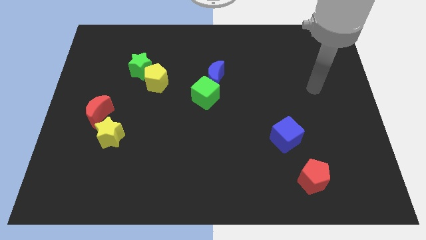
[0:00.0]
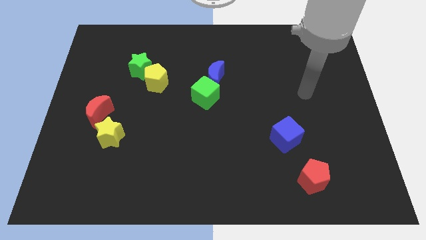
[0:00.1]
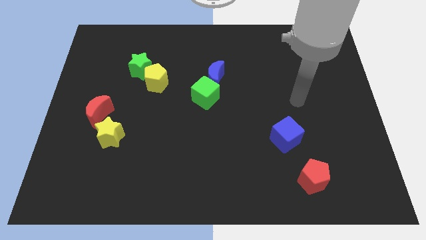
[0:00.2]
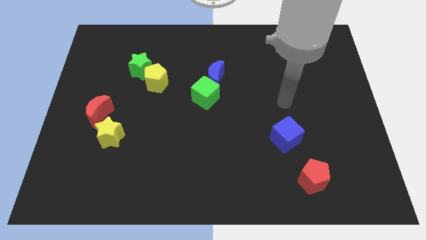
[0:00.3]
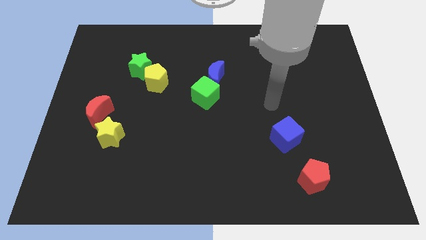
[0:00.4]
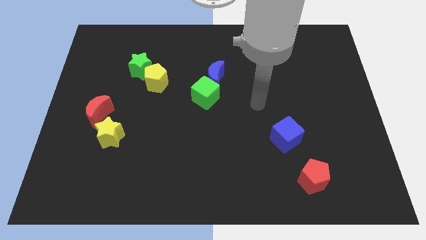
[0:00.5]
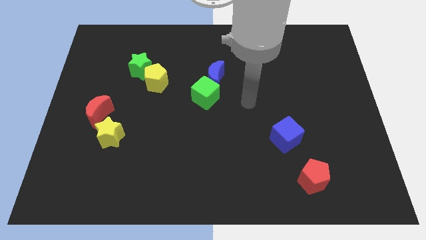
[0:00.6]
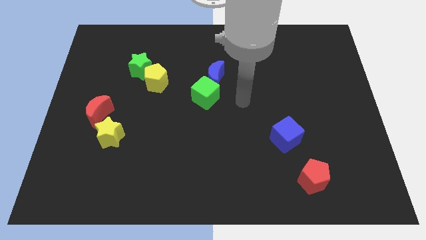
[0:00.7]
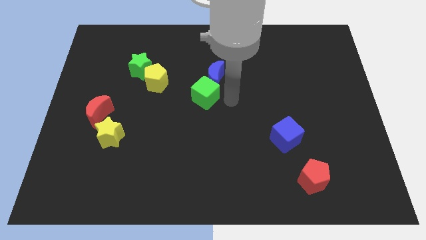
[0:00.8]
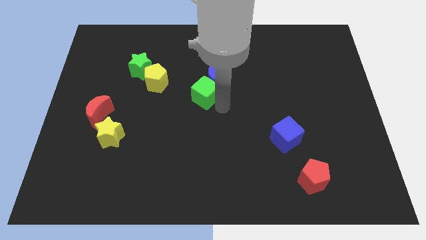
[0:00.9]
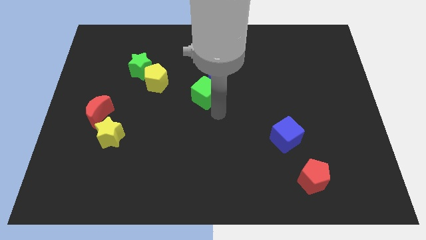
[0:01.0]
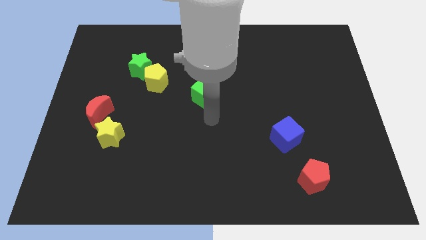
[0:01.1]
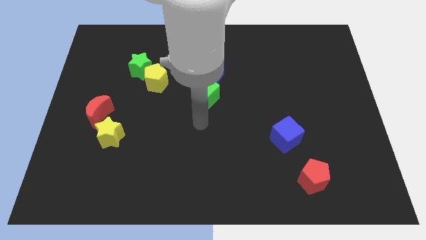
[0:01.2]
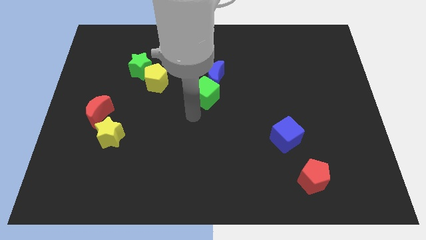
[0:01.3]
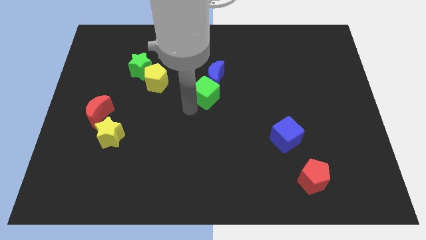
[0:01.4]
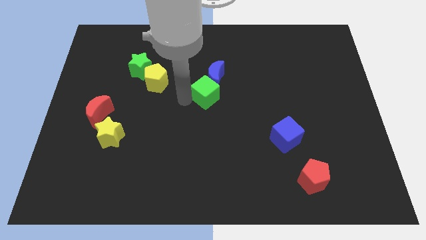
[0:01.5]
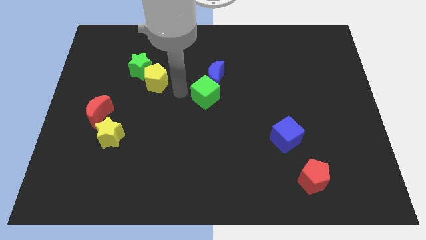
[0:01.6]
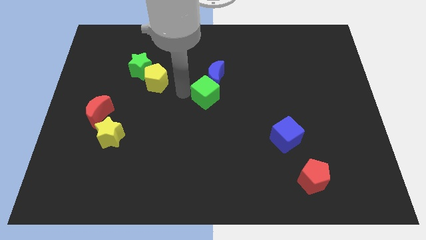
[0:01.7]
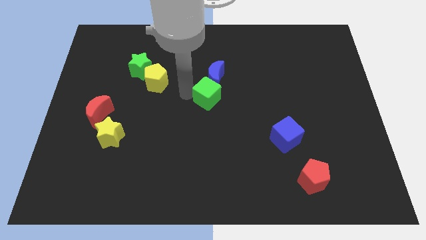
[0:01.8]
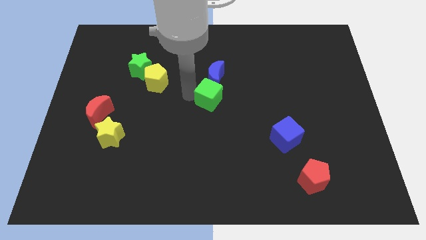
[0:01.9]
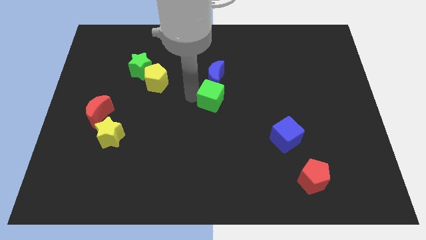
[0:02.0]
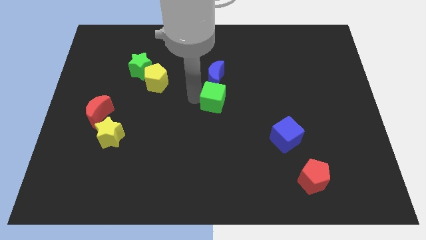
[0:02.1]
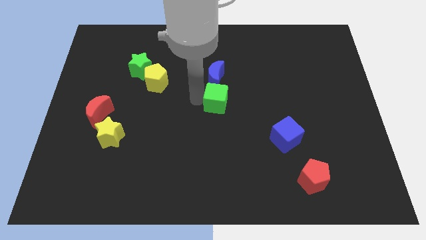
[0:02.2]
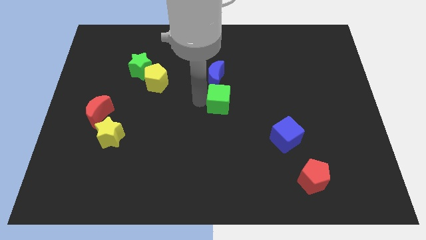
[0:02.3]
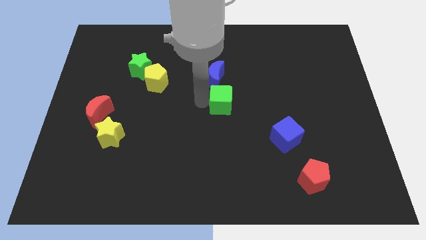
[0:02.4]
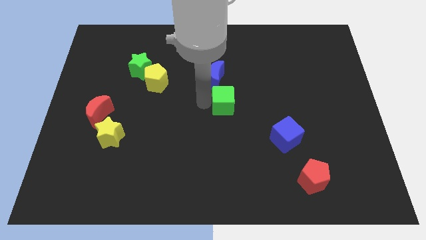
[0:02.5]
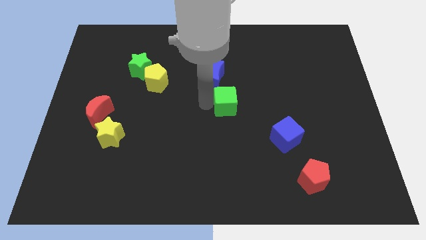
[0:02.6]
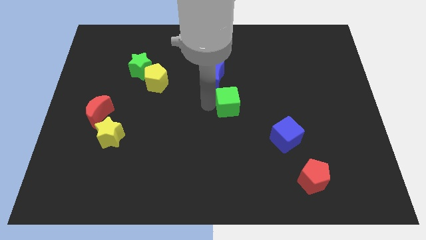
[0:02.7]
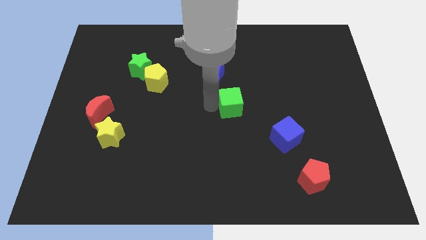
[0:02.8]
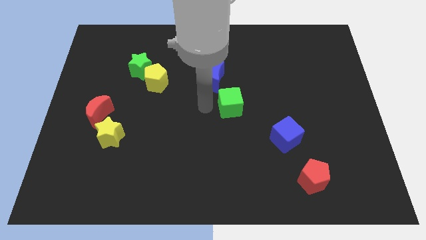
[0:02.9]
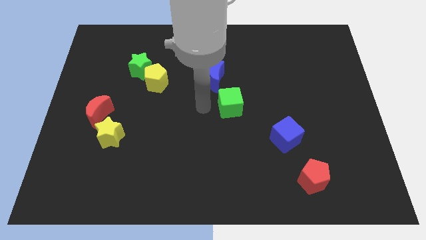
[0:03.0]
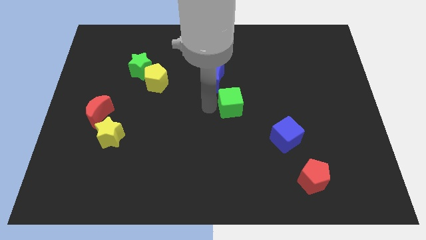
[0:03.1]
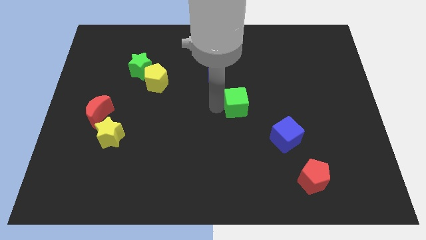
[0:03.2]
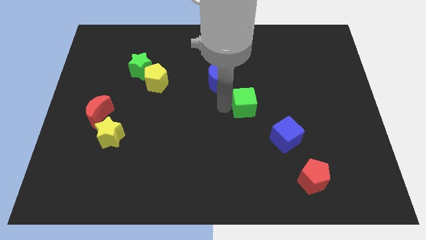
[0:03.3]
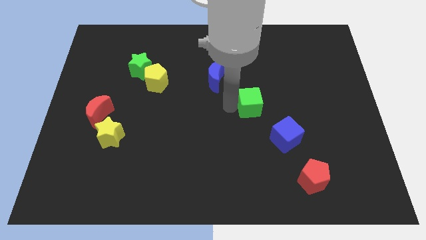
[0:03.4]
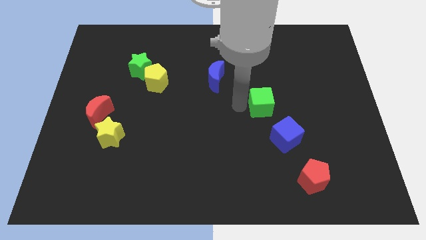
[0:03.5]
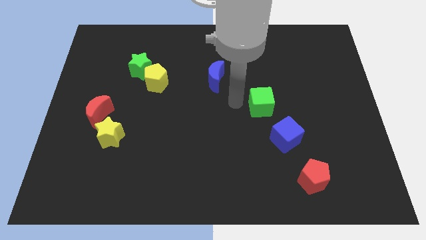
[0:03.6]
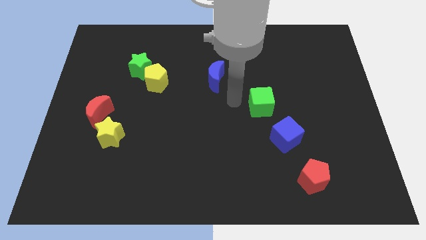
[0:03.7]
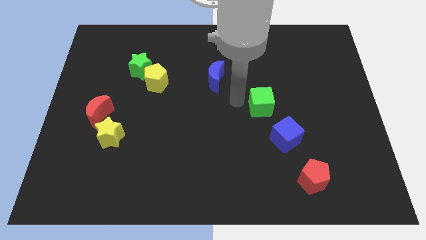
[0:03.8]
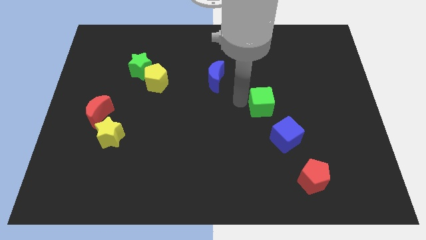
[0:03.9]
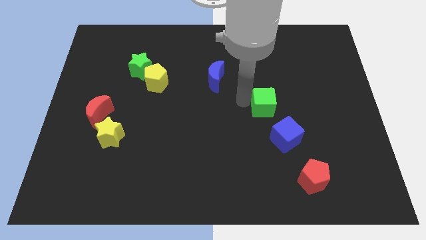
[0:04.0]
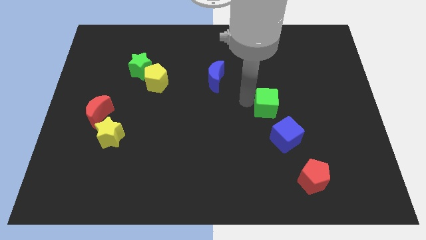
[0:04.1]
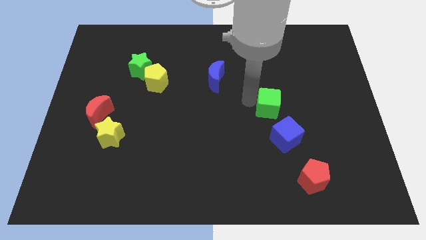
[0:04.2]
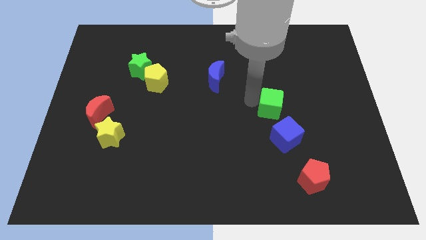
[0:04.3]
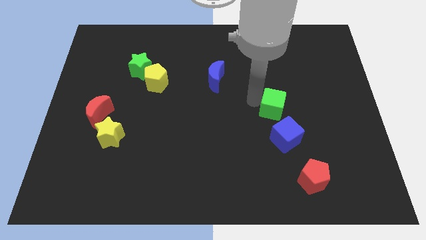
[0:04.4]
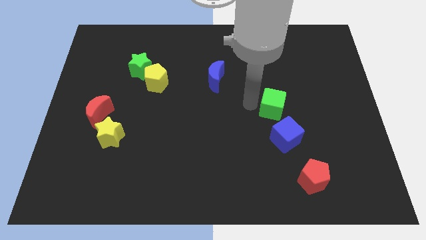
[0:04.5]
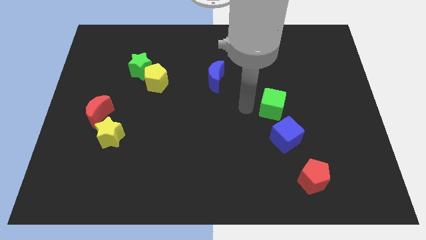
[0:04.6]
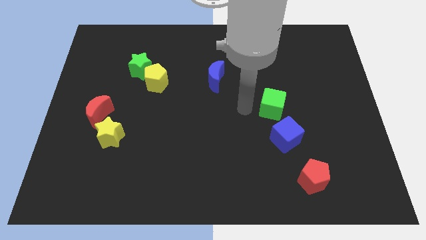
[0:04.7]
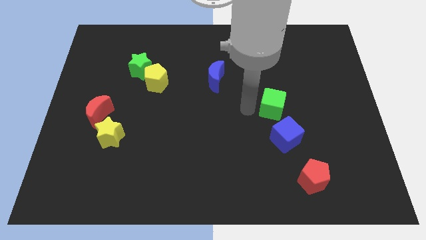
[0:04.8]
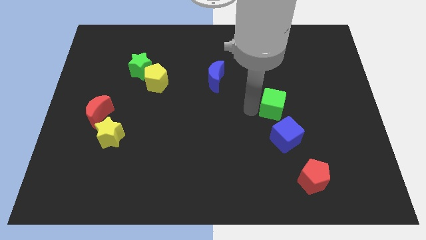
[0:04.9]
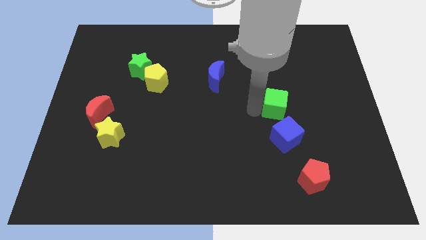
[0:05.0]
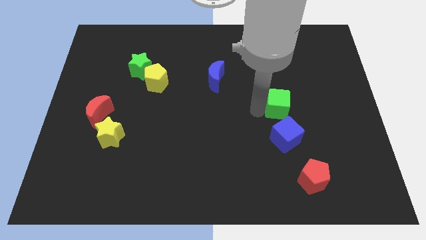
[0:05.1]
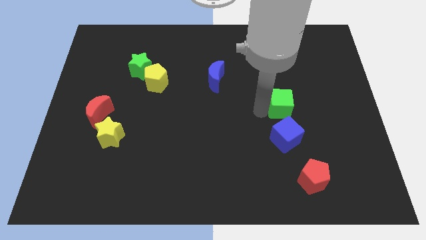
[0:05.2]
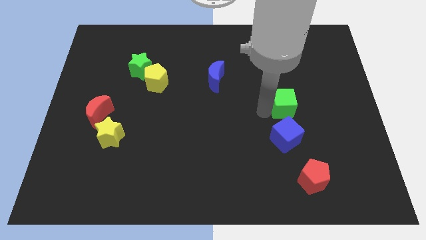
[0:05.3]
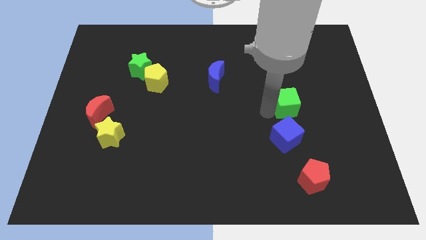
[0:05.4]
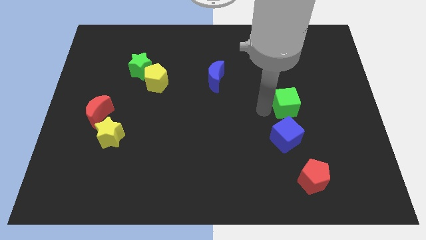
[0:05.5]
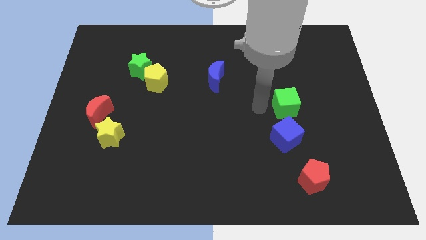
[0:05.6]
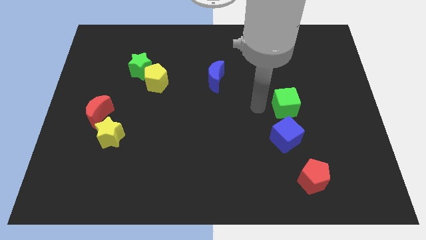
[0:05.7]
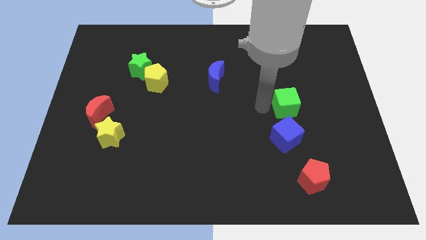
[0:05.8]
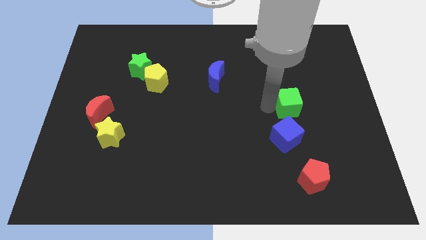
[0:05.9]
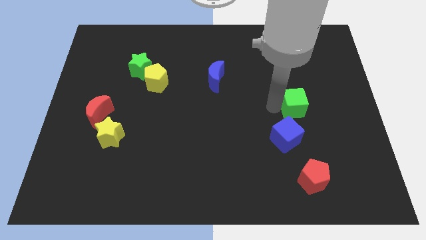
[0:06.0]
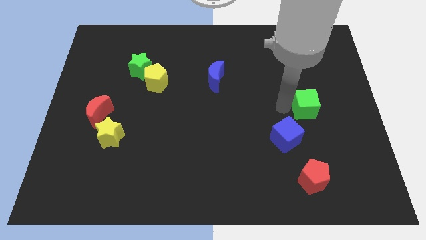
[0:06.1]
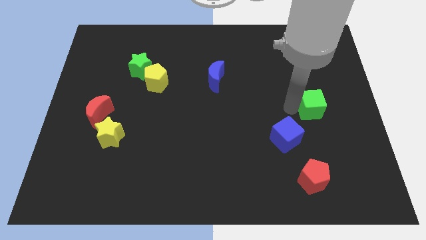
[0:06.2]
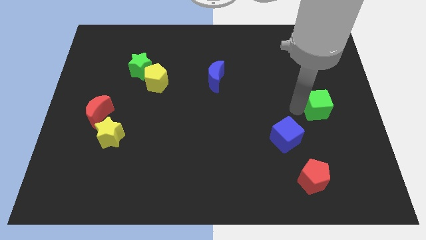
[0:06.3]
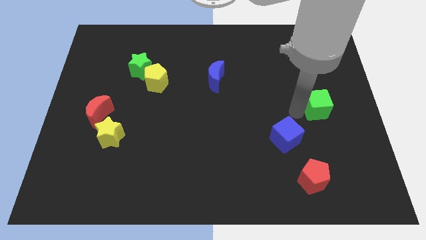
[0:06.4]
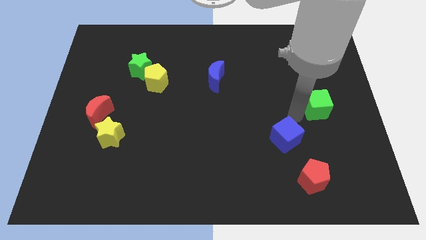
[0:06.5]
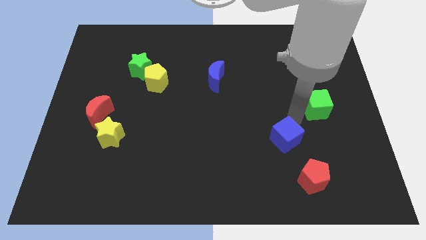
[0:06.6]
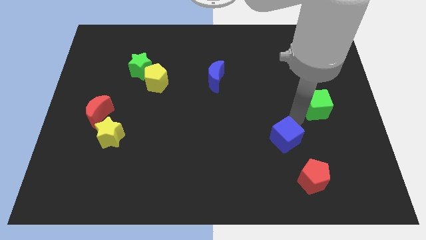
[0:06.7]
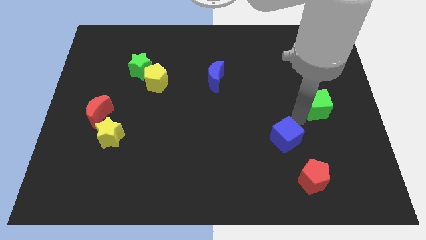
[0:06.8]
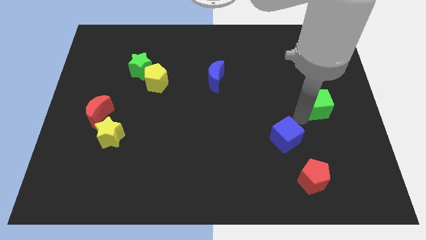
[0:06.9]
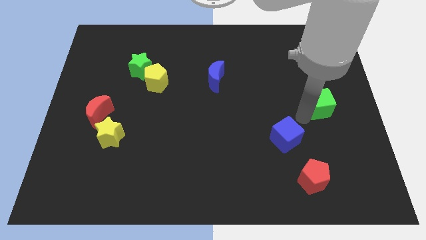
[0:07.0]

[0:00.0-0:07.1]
push the green cube to the right side of the board
